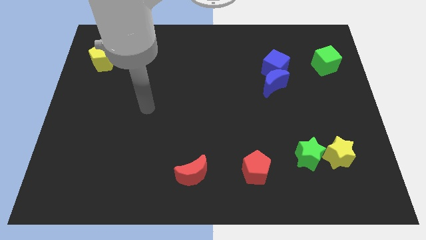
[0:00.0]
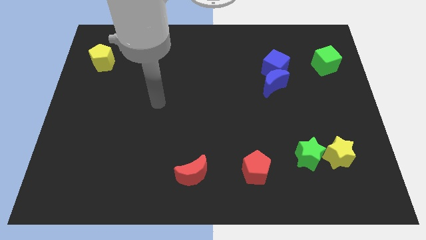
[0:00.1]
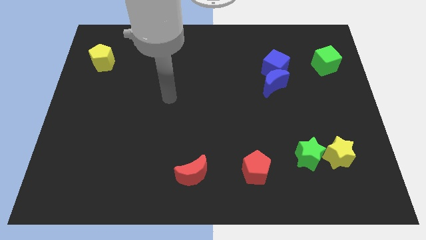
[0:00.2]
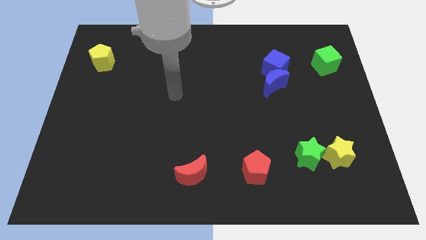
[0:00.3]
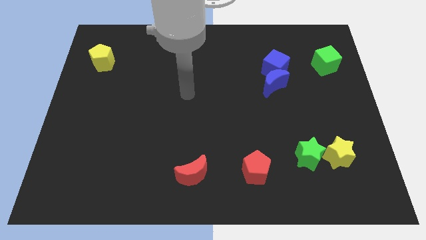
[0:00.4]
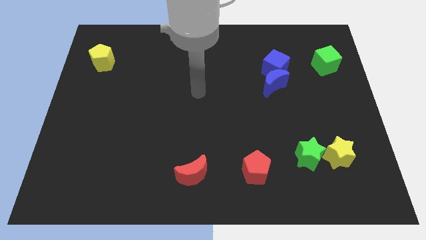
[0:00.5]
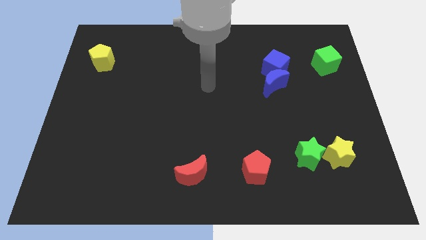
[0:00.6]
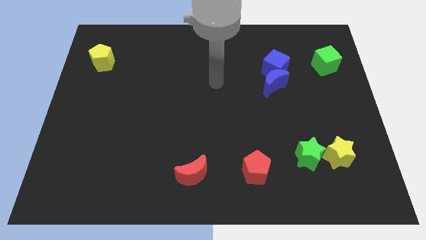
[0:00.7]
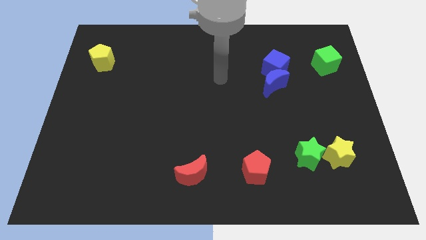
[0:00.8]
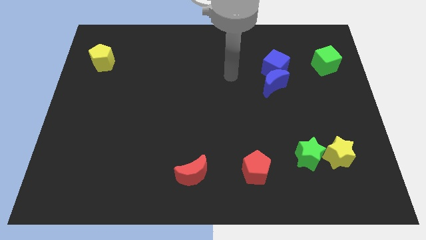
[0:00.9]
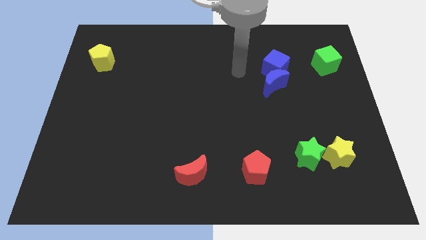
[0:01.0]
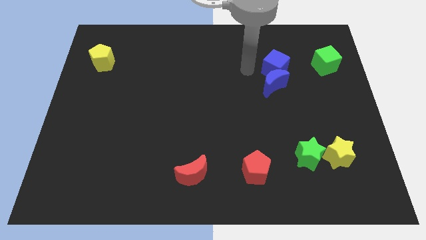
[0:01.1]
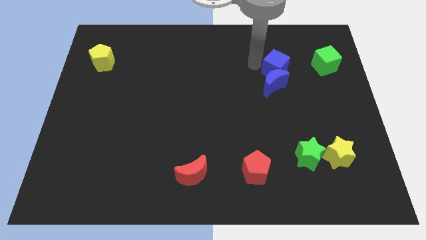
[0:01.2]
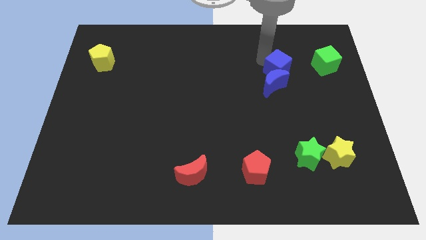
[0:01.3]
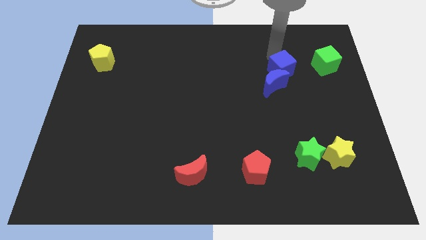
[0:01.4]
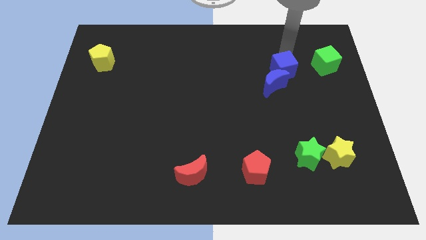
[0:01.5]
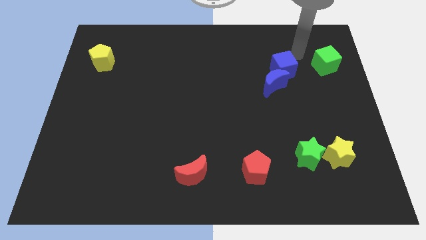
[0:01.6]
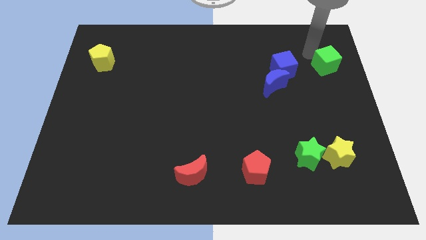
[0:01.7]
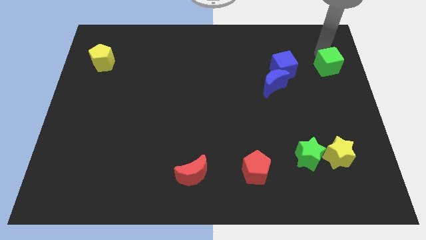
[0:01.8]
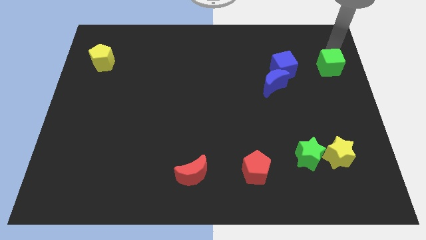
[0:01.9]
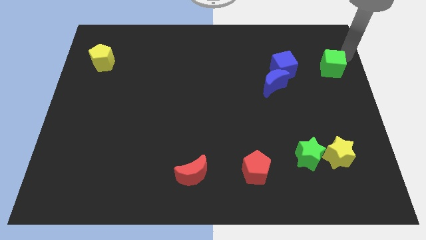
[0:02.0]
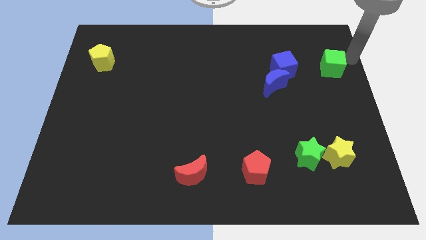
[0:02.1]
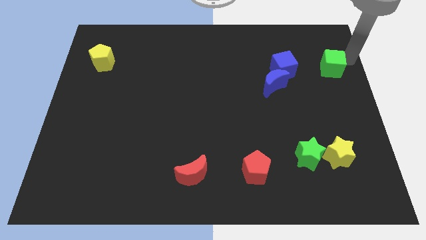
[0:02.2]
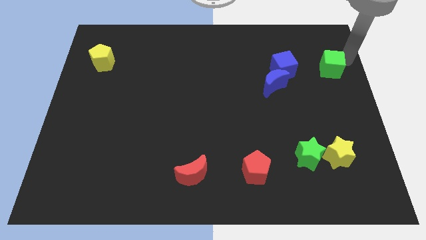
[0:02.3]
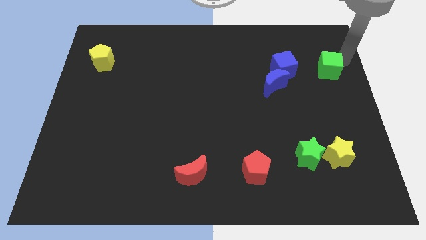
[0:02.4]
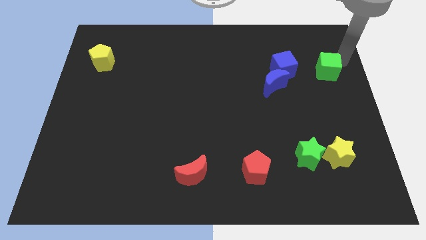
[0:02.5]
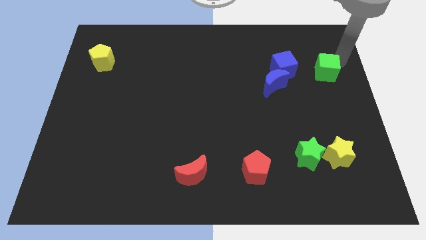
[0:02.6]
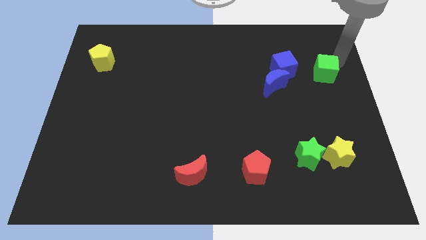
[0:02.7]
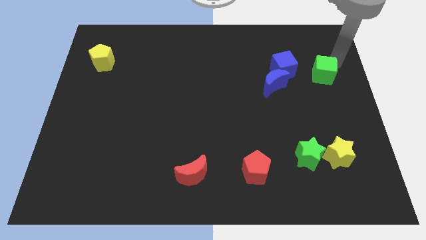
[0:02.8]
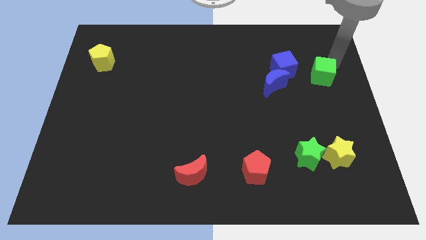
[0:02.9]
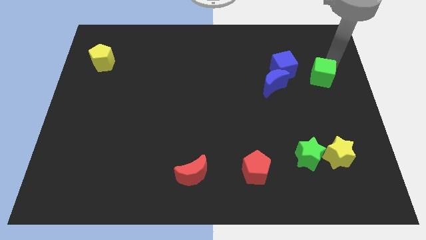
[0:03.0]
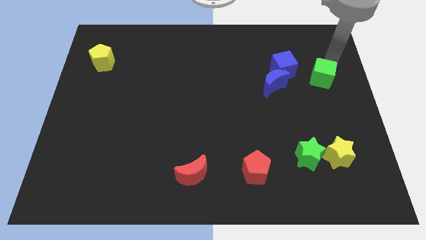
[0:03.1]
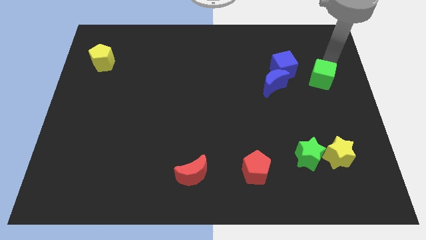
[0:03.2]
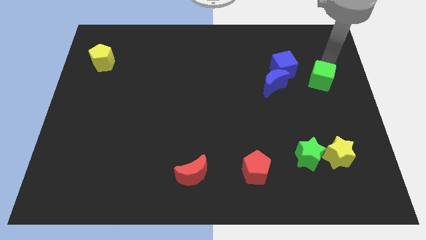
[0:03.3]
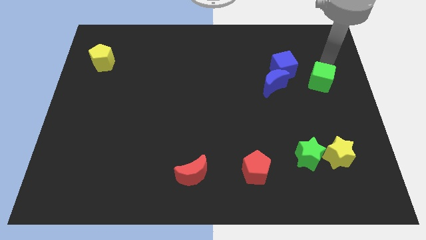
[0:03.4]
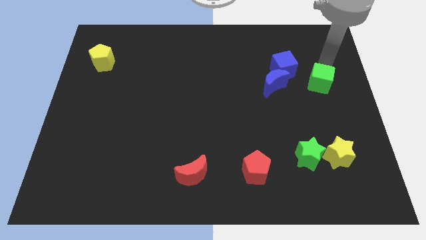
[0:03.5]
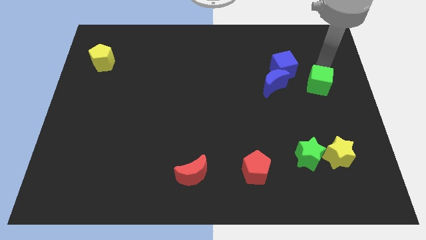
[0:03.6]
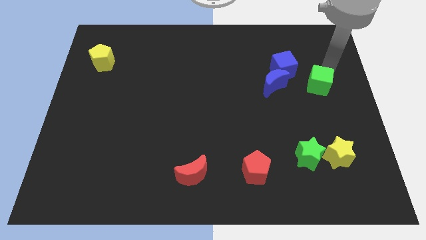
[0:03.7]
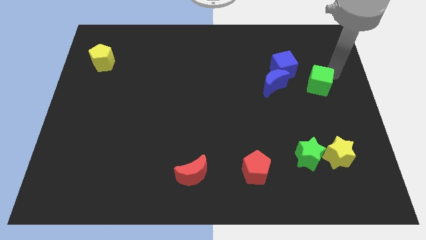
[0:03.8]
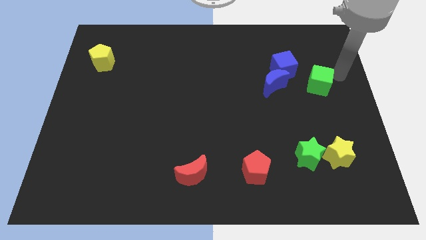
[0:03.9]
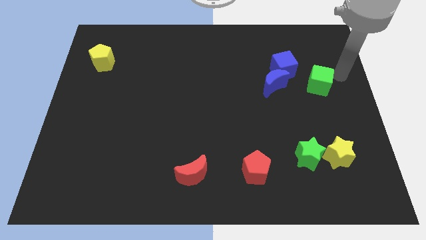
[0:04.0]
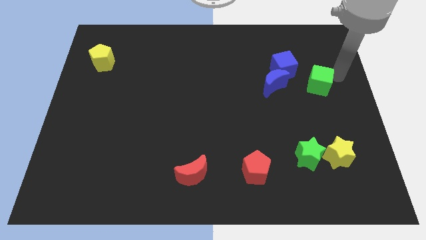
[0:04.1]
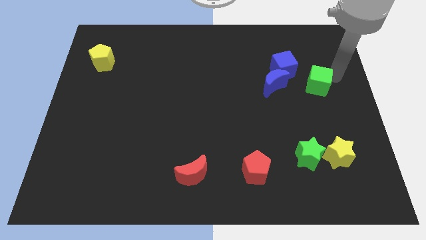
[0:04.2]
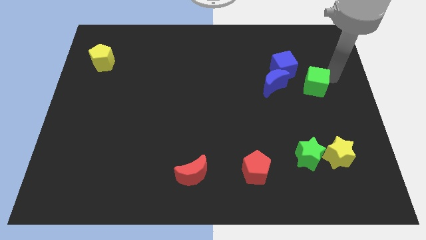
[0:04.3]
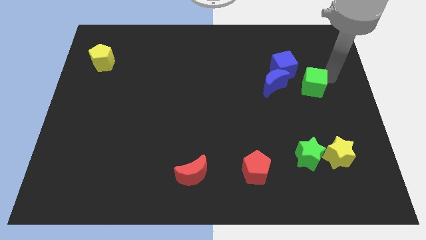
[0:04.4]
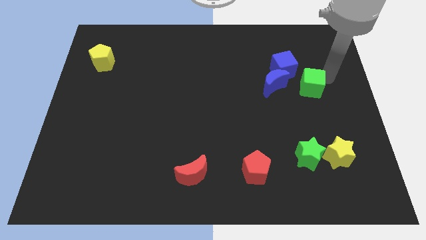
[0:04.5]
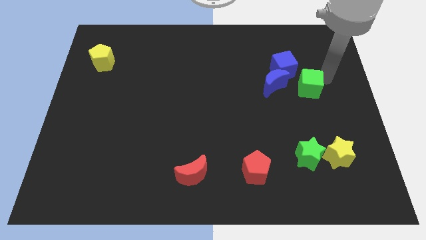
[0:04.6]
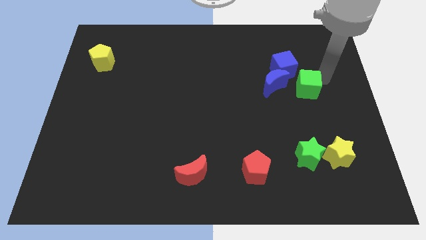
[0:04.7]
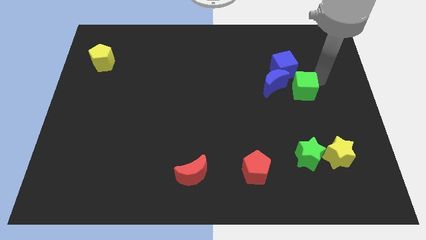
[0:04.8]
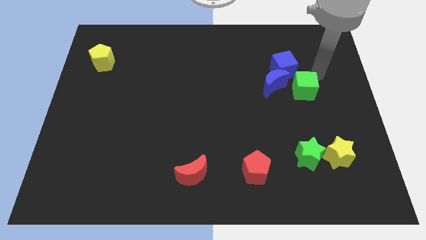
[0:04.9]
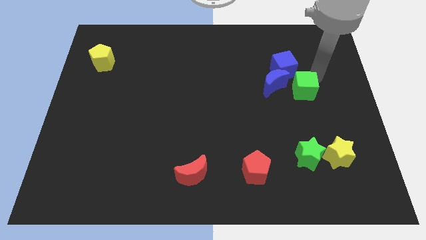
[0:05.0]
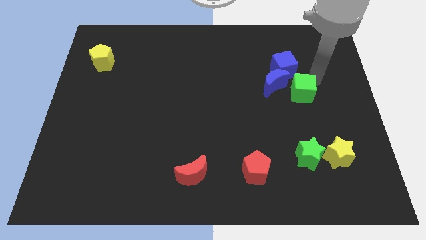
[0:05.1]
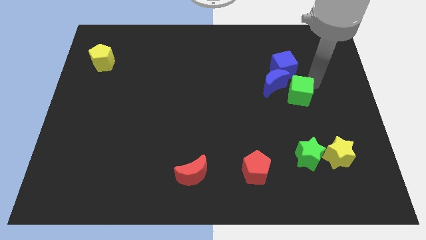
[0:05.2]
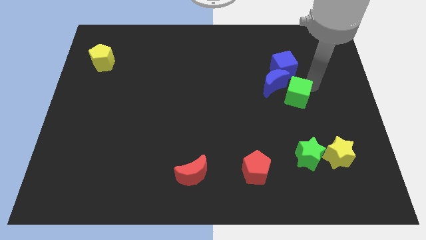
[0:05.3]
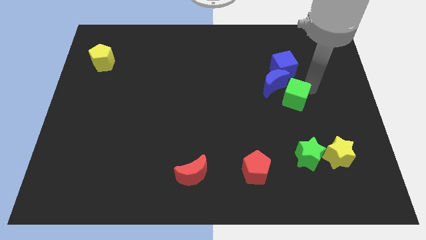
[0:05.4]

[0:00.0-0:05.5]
put the green cube to the bottom side of the blue moon

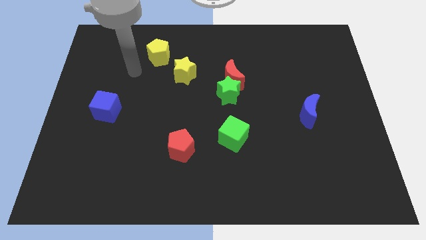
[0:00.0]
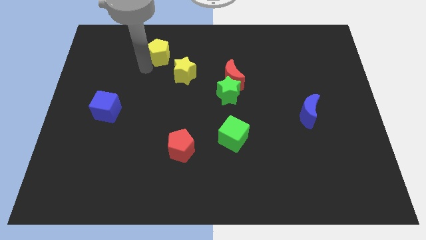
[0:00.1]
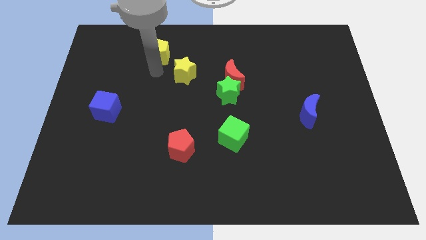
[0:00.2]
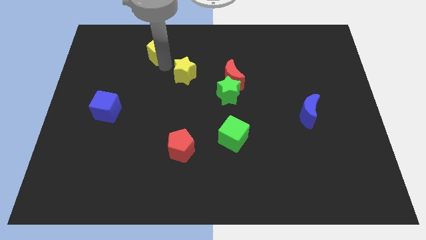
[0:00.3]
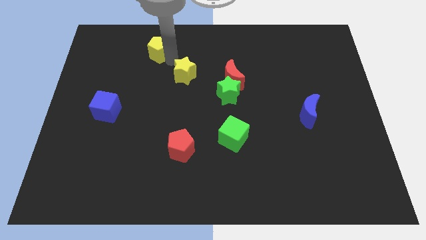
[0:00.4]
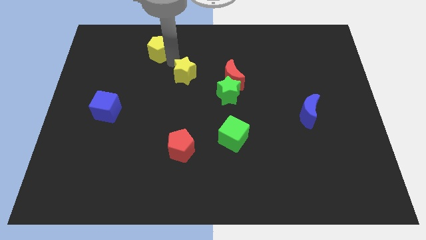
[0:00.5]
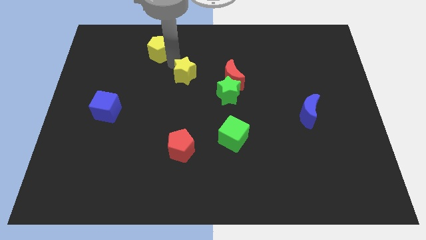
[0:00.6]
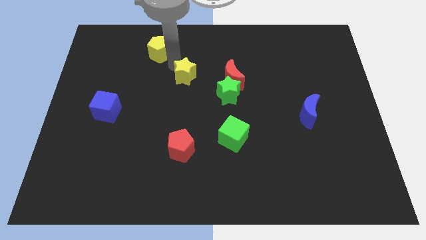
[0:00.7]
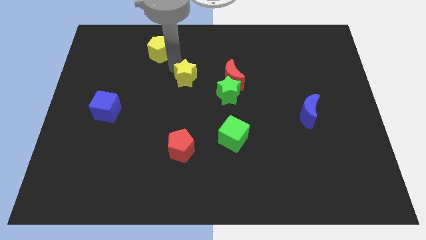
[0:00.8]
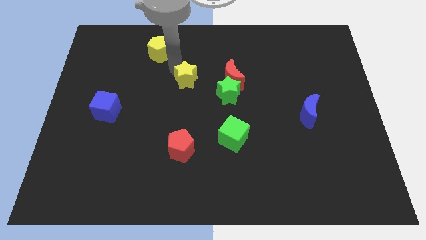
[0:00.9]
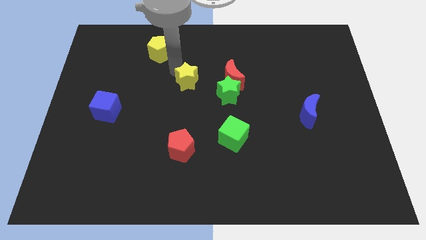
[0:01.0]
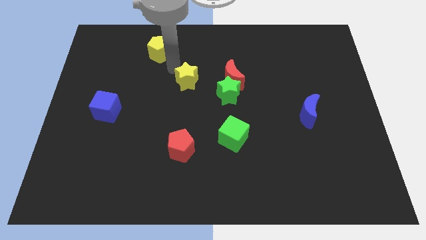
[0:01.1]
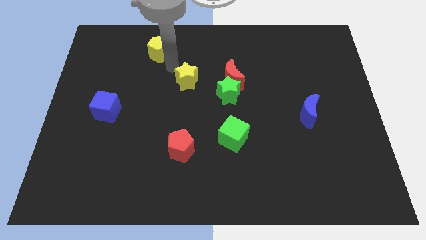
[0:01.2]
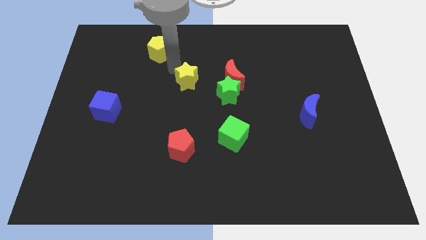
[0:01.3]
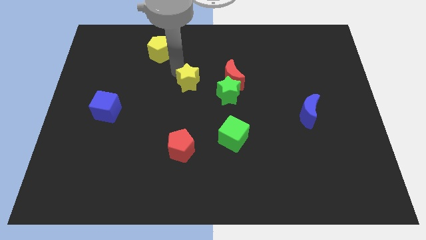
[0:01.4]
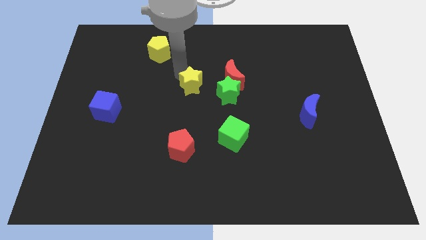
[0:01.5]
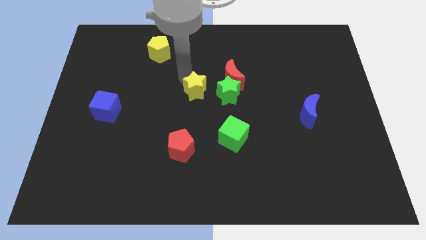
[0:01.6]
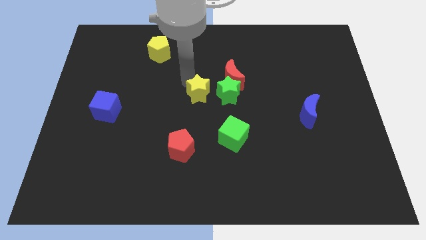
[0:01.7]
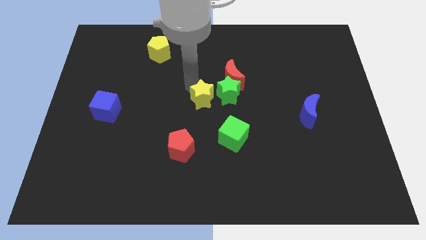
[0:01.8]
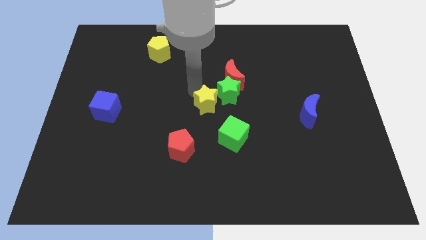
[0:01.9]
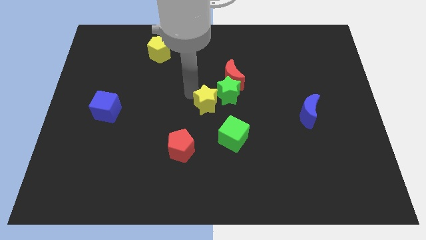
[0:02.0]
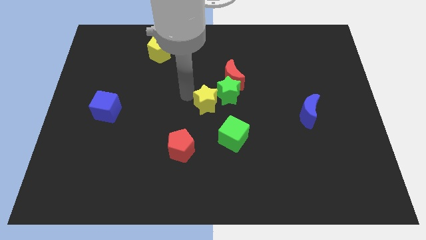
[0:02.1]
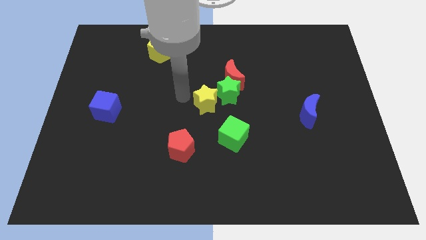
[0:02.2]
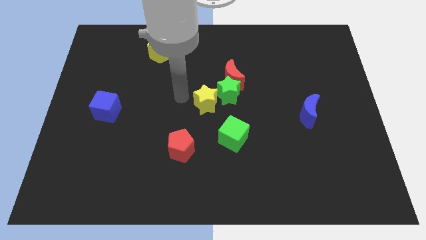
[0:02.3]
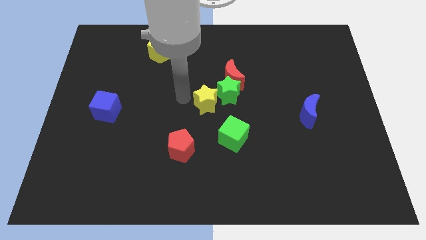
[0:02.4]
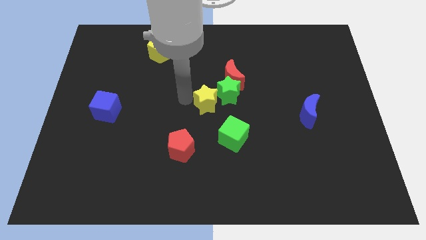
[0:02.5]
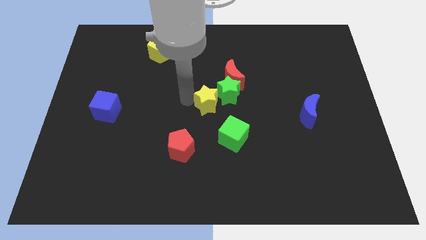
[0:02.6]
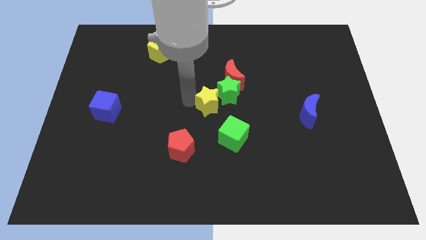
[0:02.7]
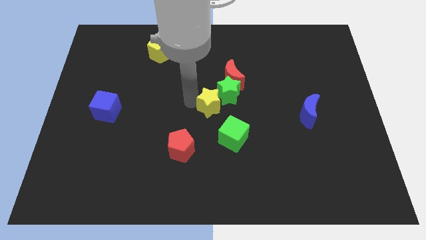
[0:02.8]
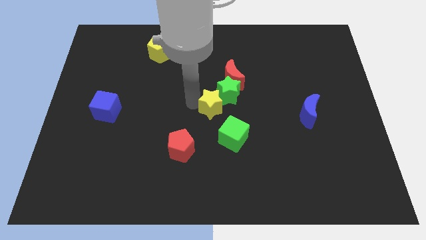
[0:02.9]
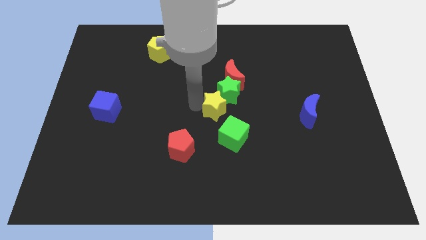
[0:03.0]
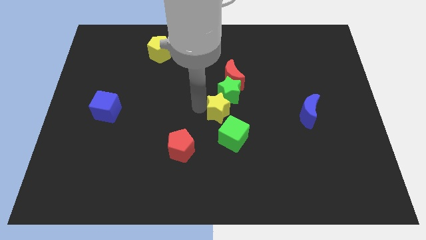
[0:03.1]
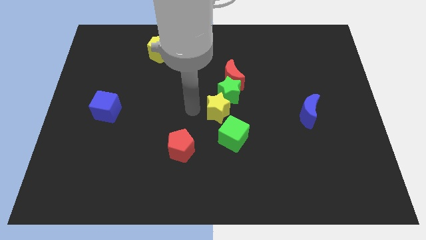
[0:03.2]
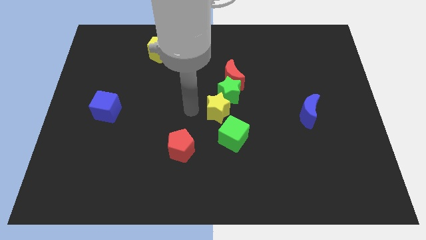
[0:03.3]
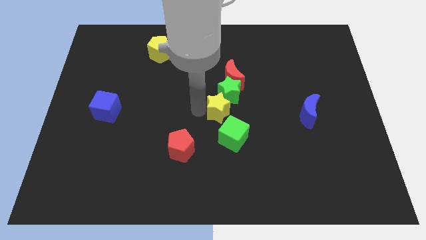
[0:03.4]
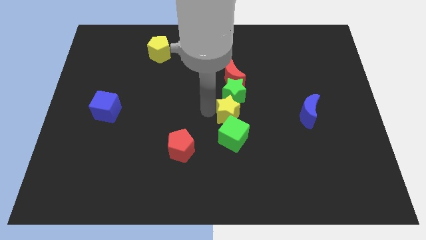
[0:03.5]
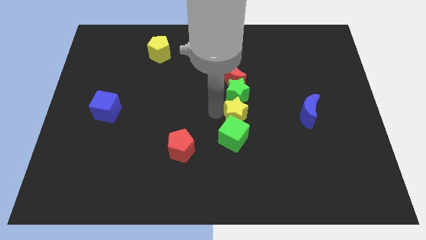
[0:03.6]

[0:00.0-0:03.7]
put the yellow star diagonally down and to the right of the green star
